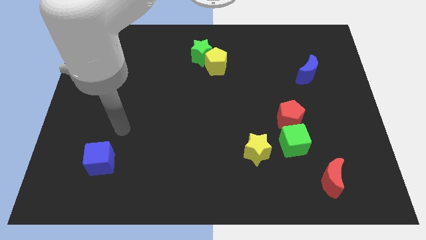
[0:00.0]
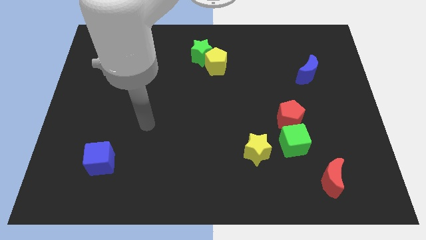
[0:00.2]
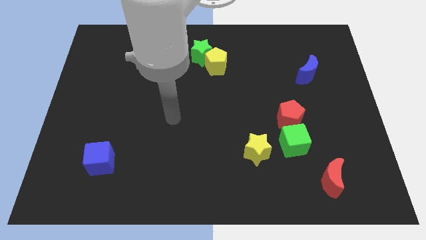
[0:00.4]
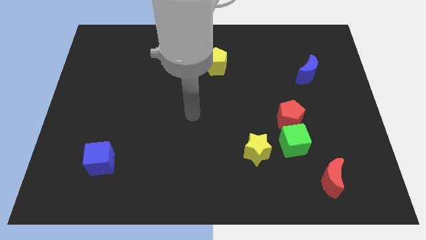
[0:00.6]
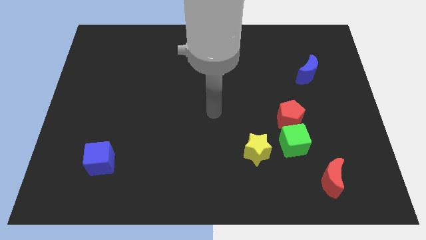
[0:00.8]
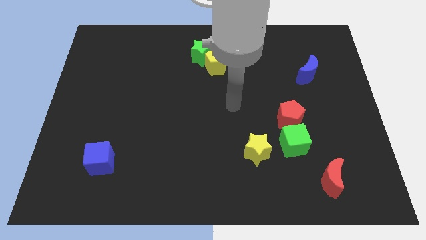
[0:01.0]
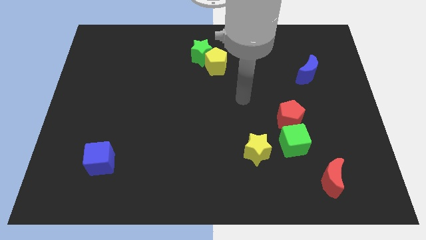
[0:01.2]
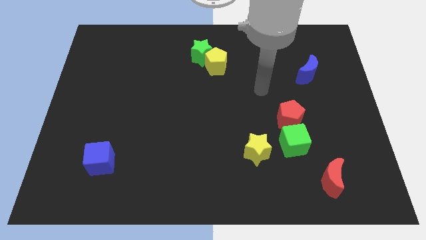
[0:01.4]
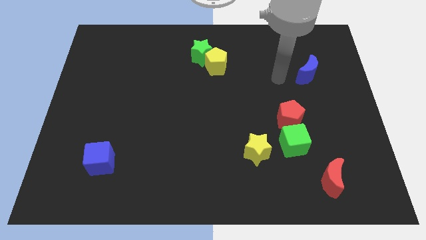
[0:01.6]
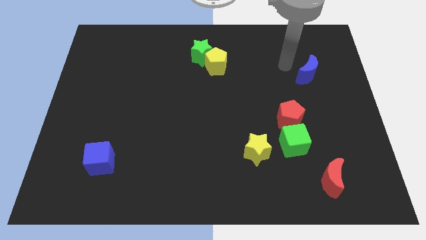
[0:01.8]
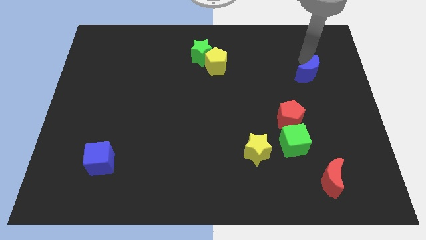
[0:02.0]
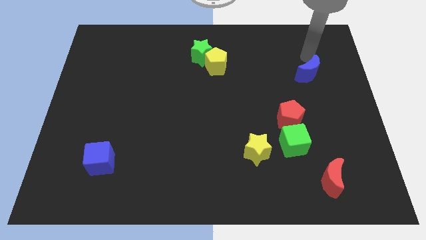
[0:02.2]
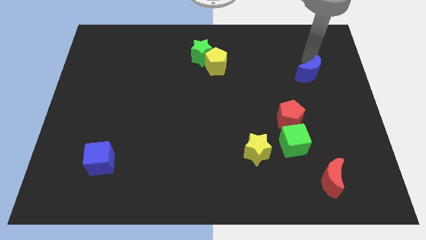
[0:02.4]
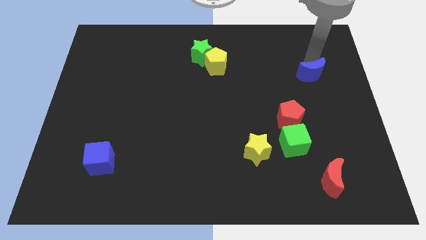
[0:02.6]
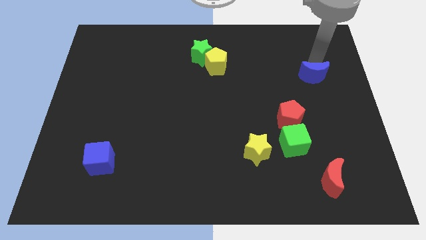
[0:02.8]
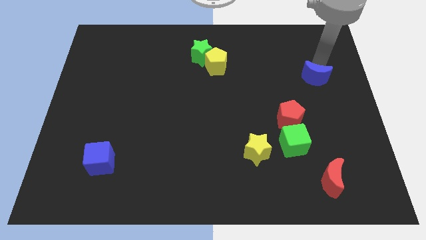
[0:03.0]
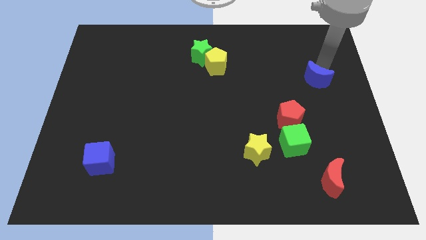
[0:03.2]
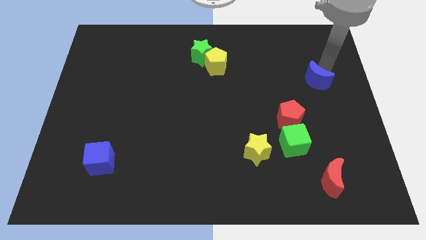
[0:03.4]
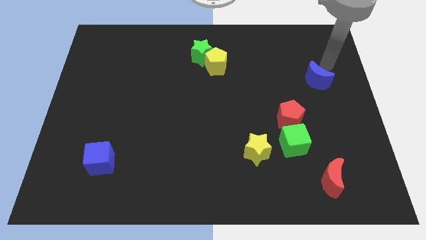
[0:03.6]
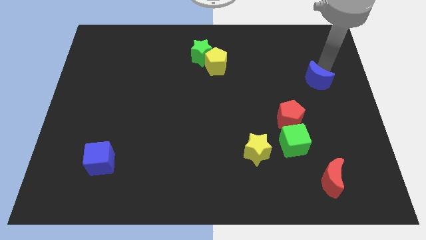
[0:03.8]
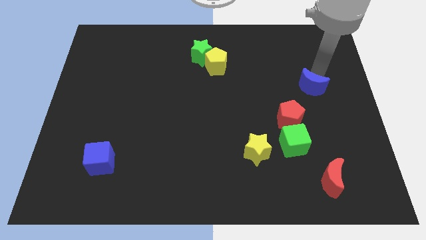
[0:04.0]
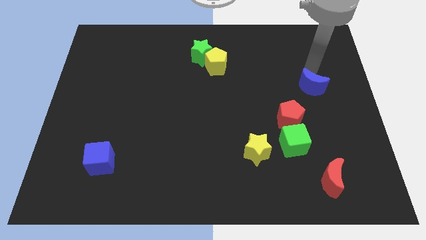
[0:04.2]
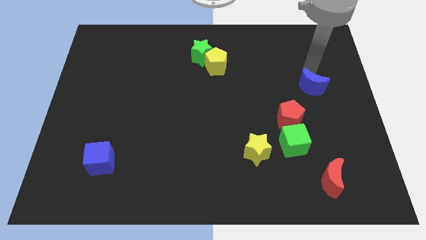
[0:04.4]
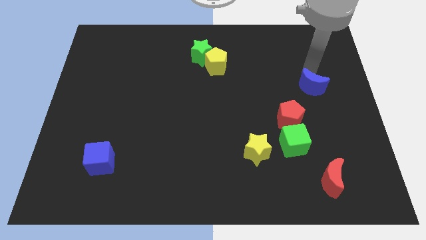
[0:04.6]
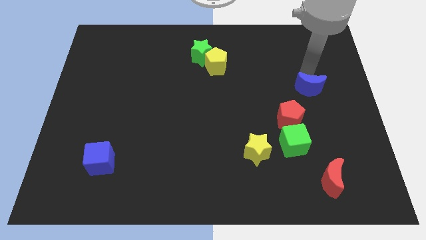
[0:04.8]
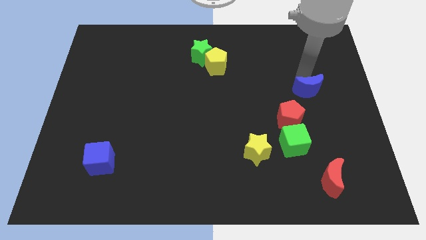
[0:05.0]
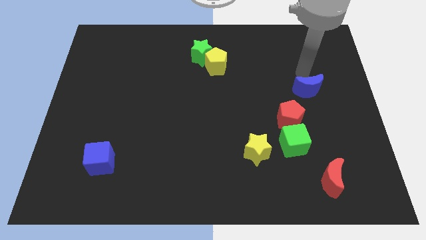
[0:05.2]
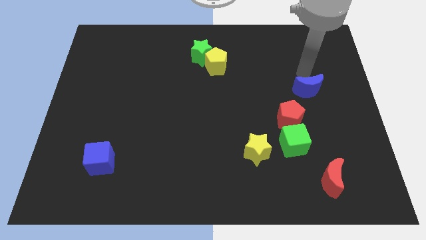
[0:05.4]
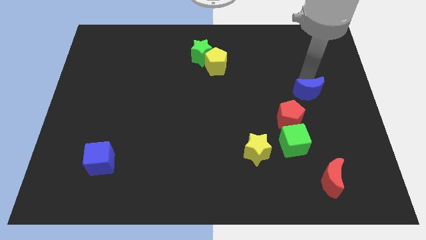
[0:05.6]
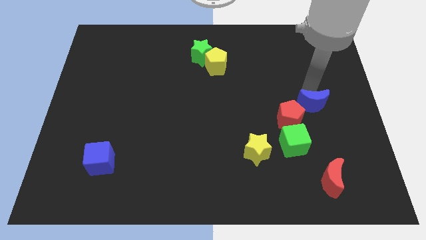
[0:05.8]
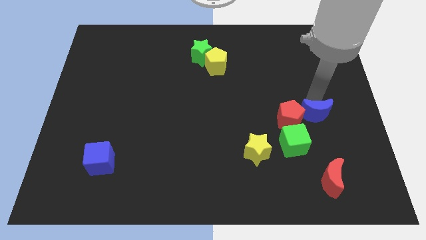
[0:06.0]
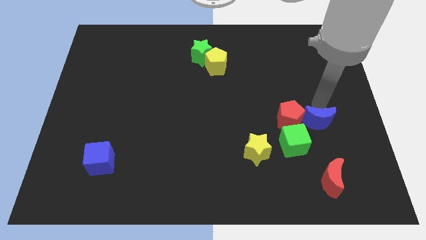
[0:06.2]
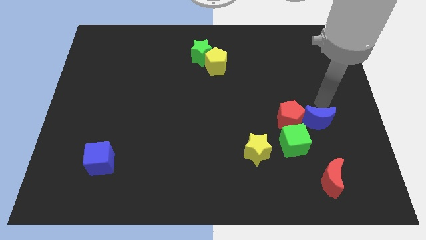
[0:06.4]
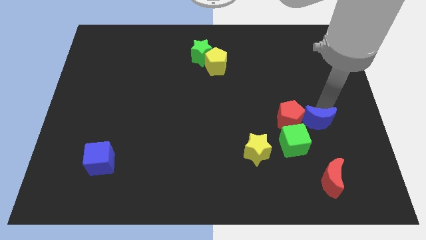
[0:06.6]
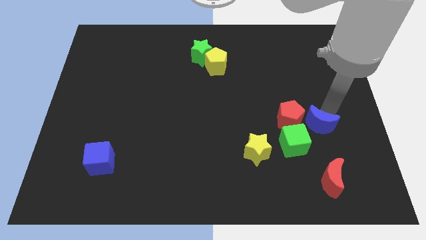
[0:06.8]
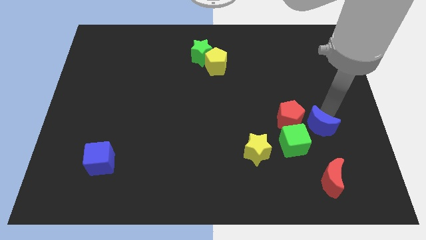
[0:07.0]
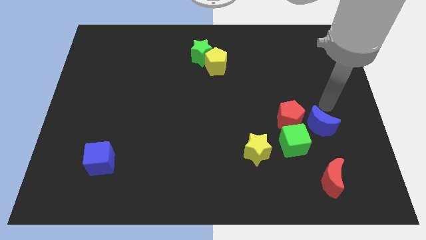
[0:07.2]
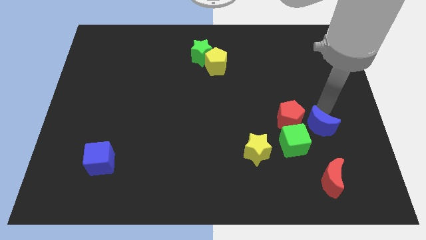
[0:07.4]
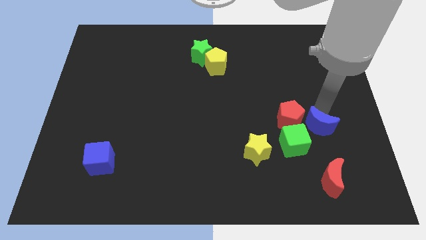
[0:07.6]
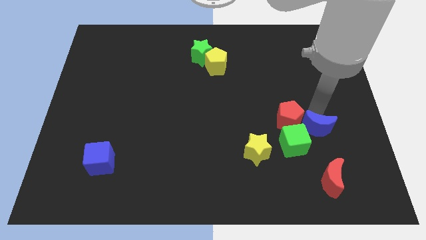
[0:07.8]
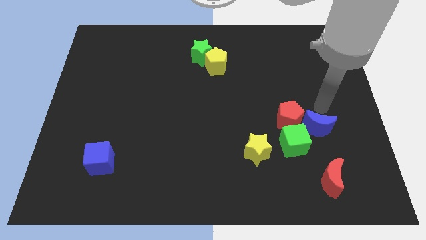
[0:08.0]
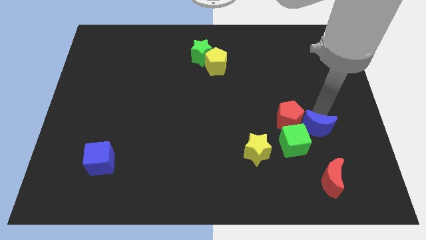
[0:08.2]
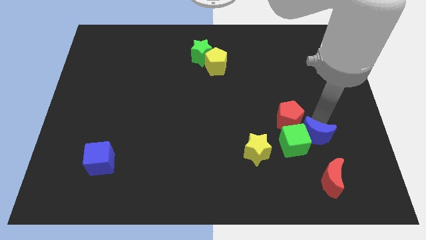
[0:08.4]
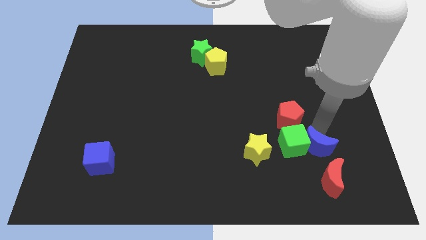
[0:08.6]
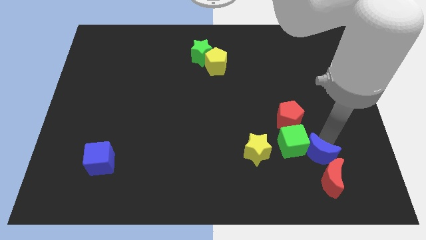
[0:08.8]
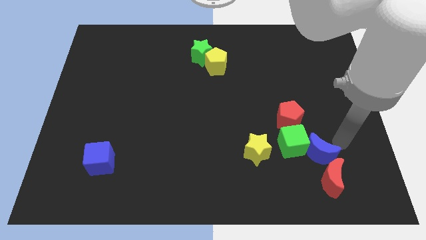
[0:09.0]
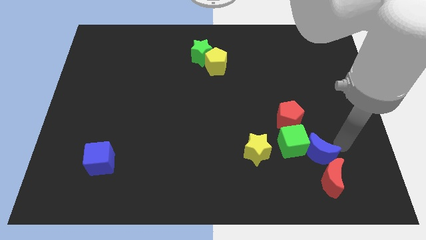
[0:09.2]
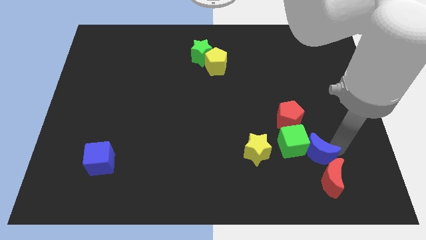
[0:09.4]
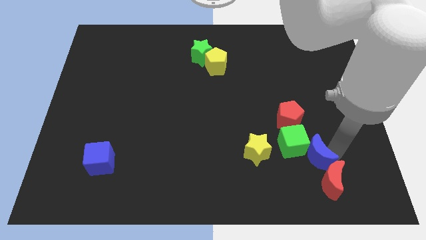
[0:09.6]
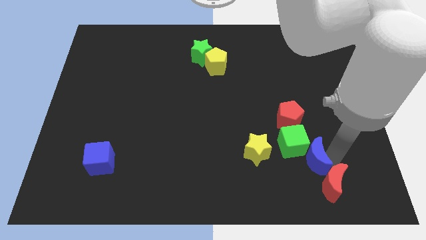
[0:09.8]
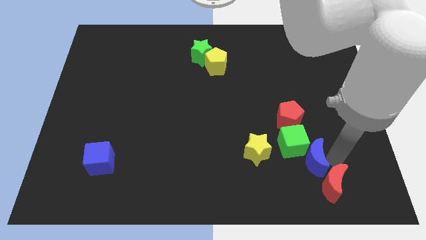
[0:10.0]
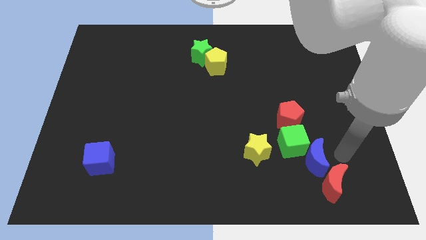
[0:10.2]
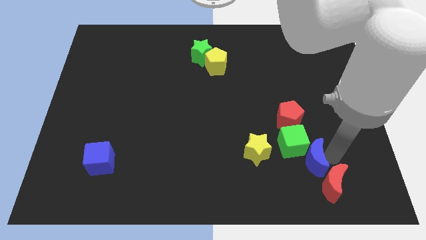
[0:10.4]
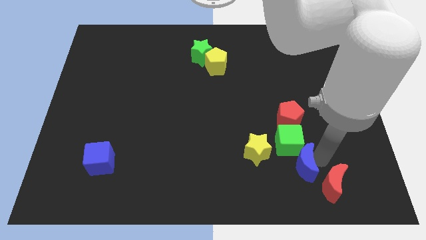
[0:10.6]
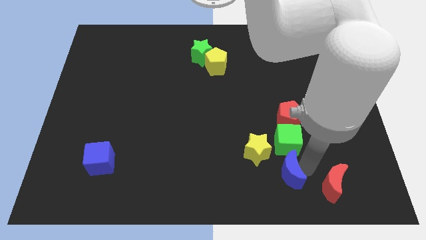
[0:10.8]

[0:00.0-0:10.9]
put the blue moon to the bottom left of the green cube
